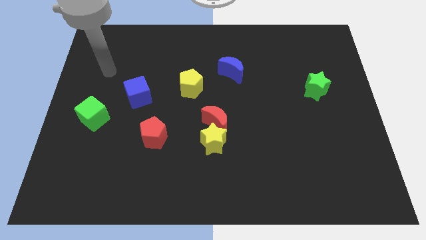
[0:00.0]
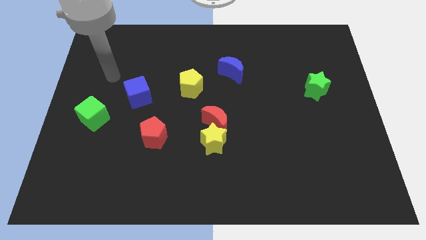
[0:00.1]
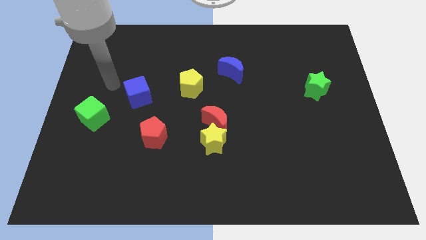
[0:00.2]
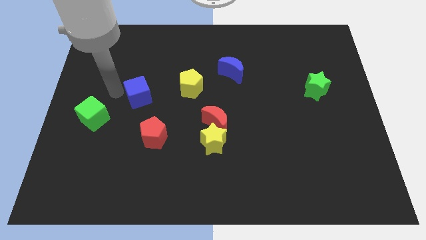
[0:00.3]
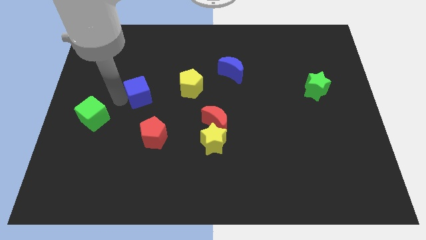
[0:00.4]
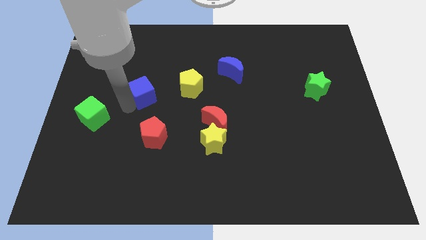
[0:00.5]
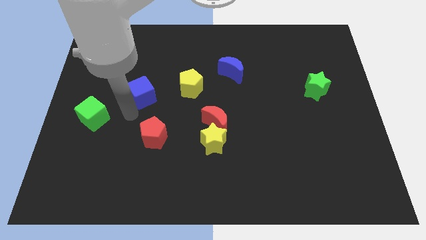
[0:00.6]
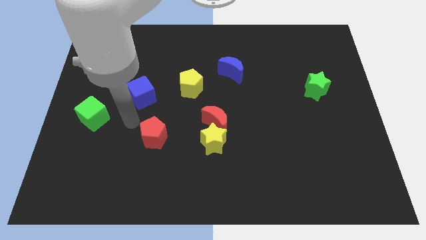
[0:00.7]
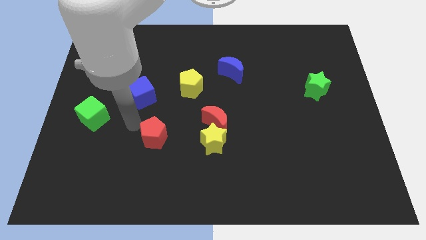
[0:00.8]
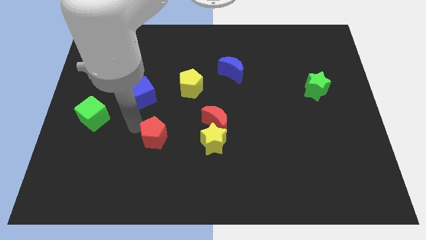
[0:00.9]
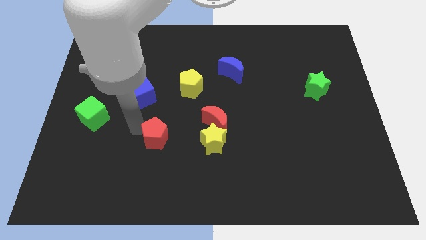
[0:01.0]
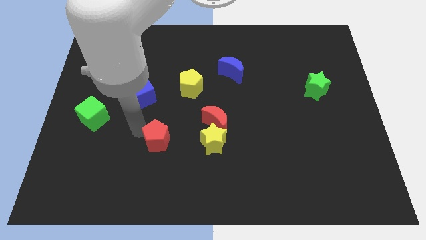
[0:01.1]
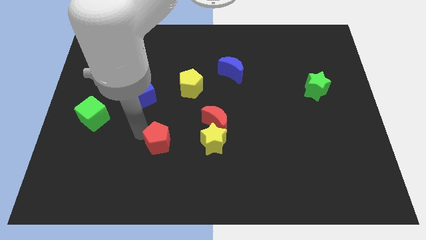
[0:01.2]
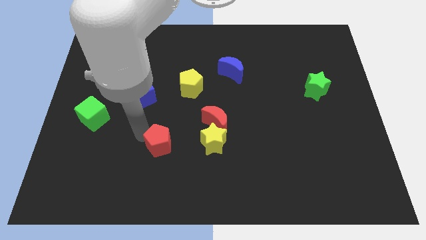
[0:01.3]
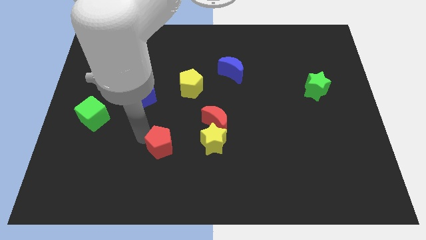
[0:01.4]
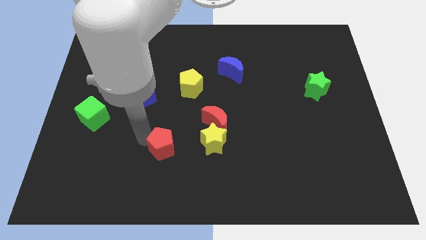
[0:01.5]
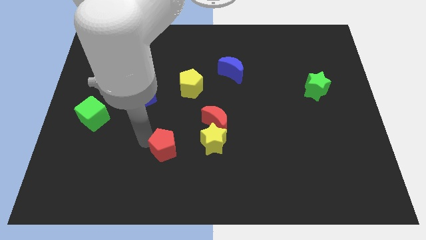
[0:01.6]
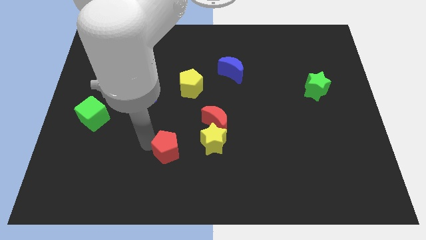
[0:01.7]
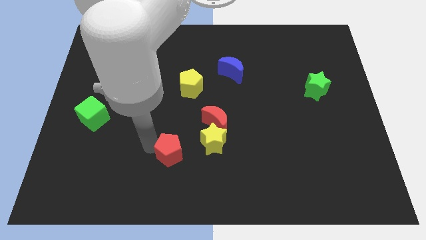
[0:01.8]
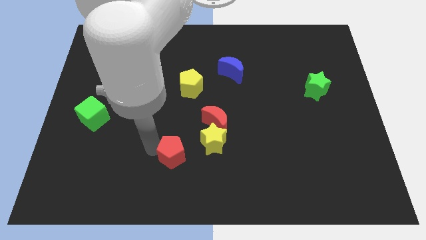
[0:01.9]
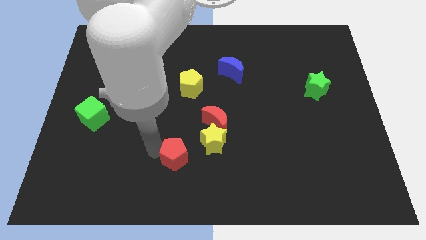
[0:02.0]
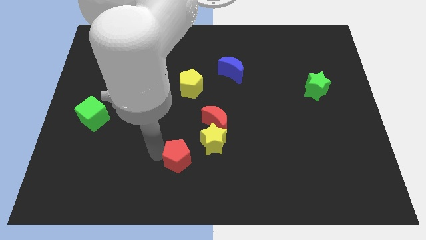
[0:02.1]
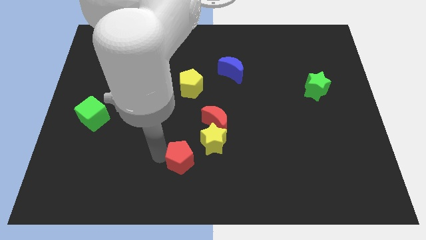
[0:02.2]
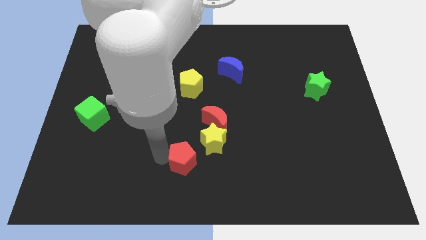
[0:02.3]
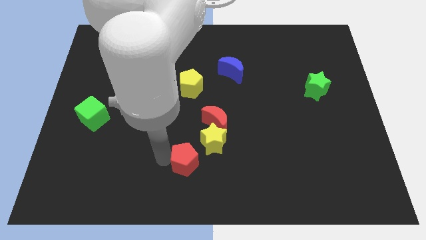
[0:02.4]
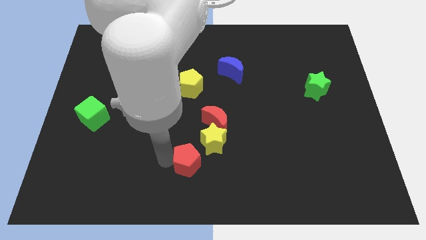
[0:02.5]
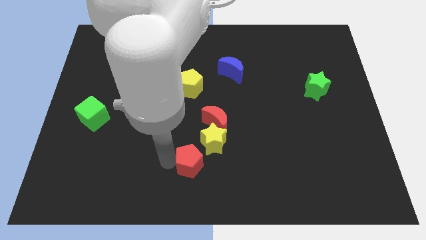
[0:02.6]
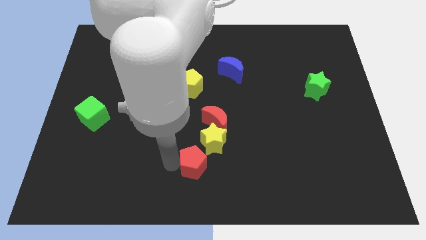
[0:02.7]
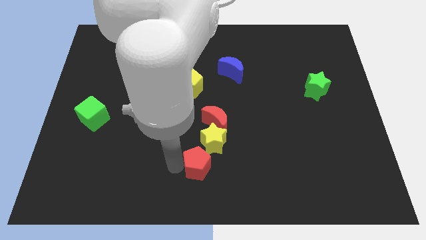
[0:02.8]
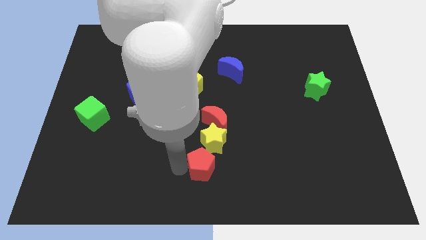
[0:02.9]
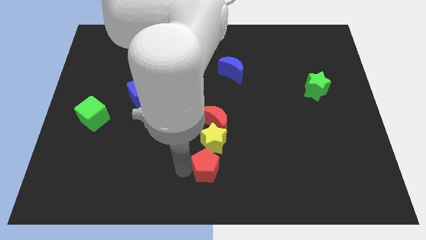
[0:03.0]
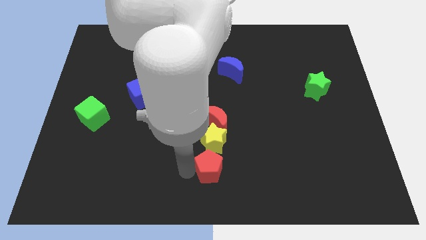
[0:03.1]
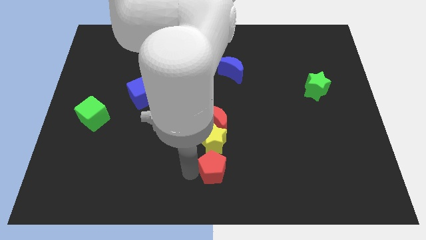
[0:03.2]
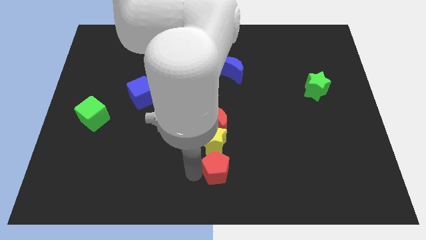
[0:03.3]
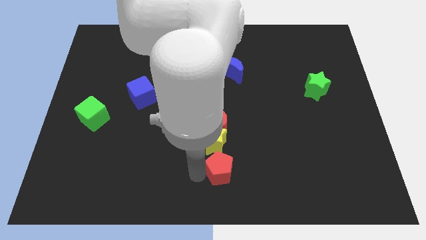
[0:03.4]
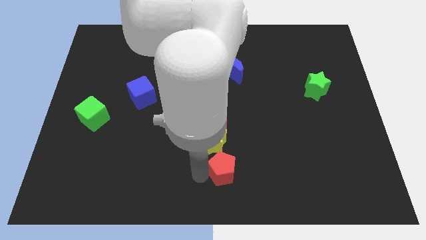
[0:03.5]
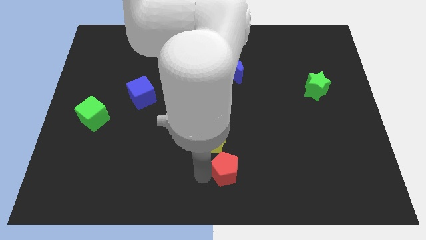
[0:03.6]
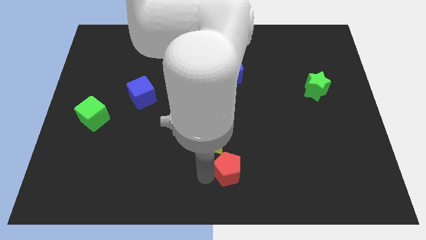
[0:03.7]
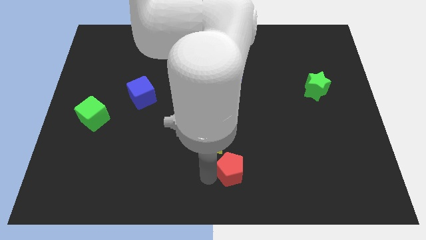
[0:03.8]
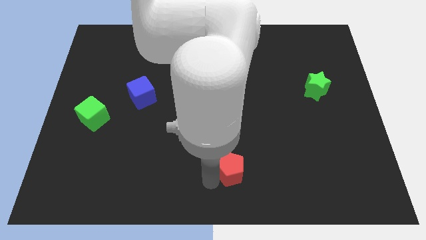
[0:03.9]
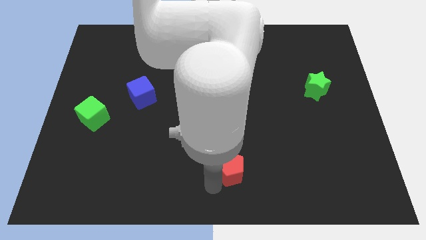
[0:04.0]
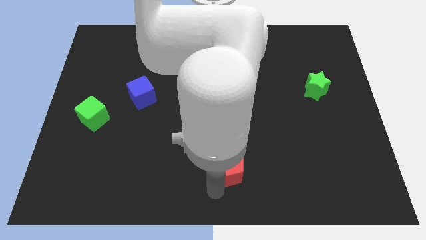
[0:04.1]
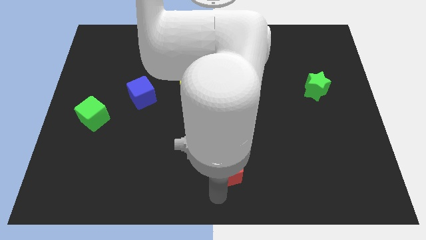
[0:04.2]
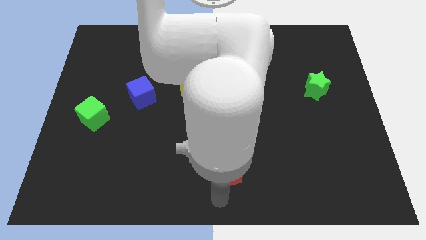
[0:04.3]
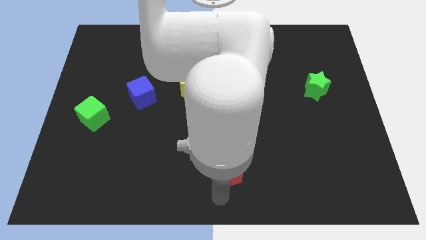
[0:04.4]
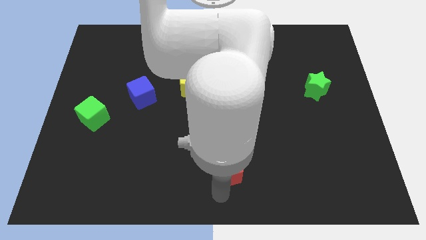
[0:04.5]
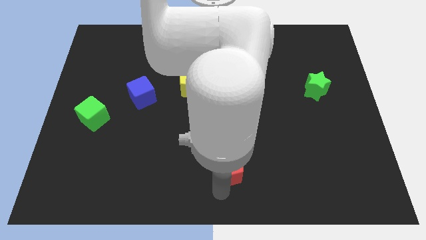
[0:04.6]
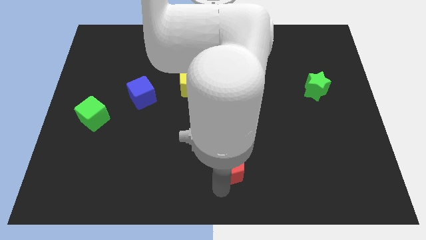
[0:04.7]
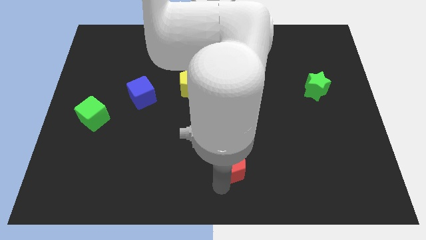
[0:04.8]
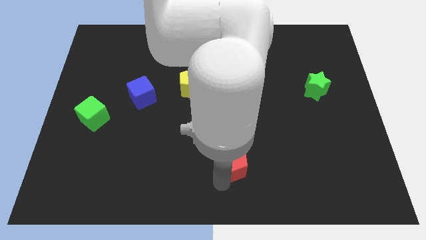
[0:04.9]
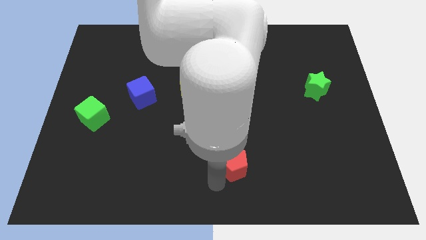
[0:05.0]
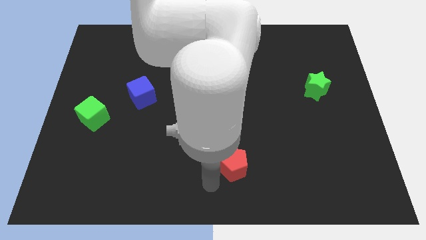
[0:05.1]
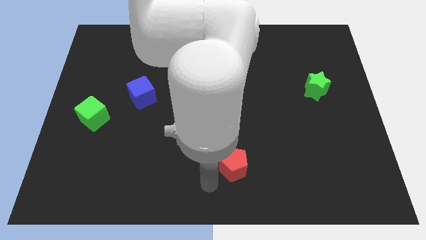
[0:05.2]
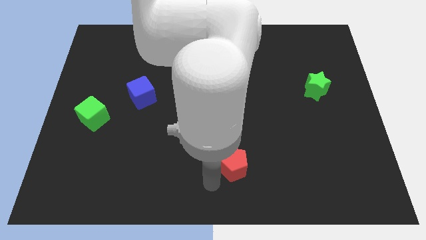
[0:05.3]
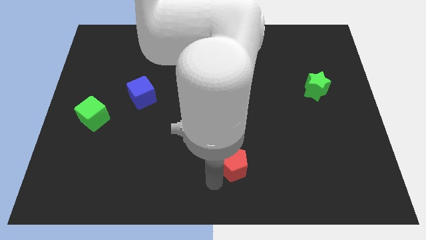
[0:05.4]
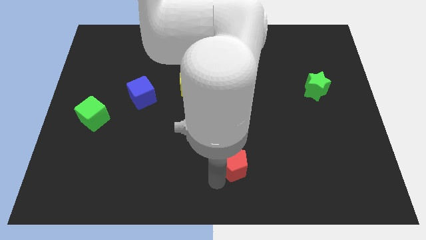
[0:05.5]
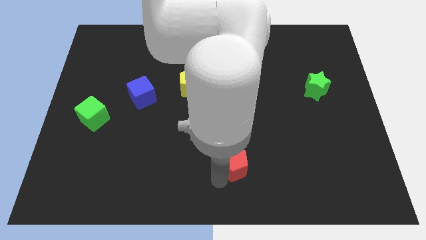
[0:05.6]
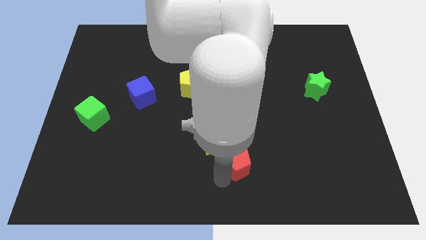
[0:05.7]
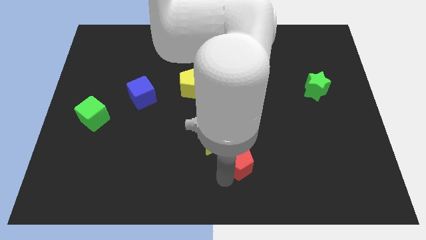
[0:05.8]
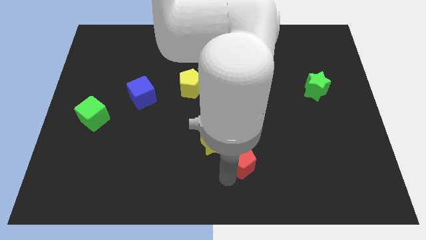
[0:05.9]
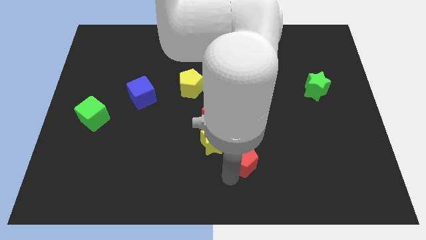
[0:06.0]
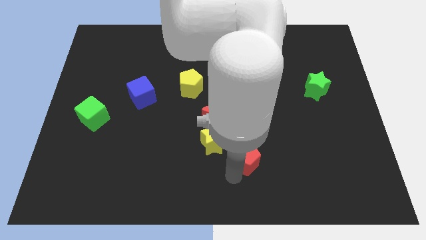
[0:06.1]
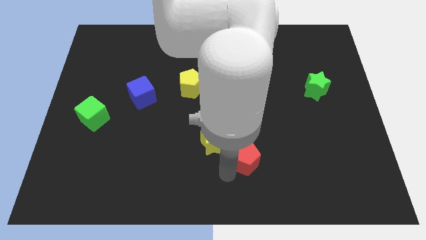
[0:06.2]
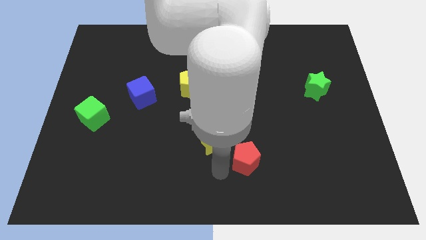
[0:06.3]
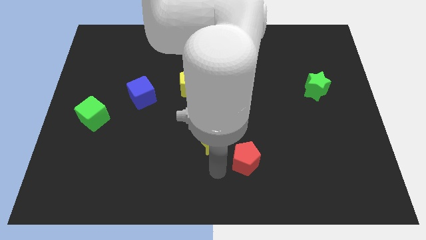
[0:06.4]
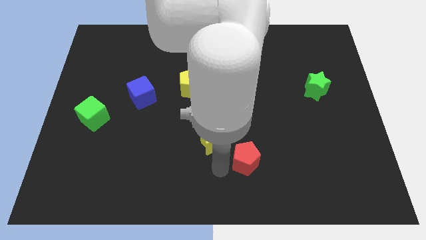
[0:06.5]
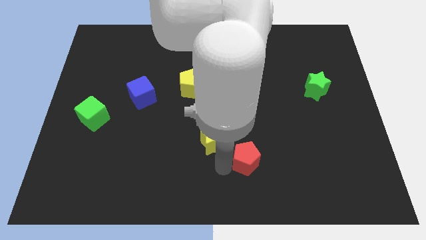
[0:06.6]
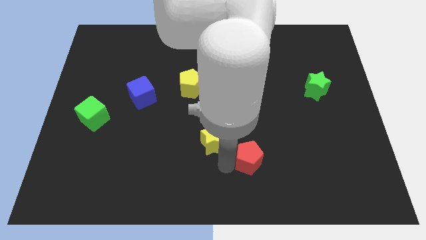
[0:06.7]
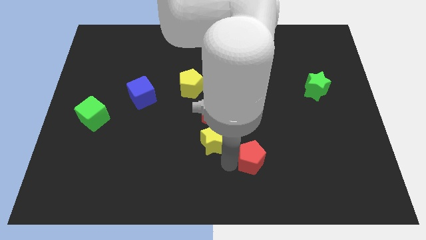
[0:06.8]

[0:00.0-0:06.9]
push the red pentagon right

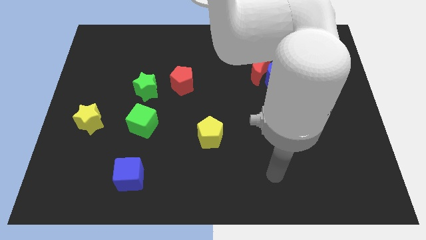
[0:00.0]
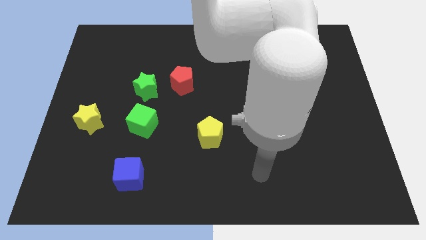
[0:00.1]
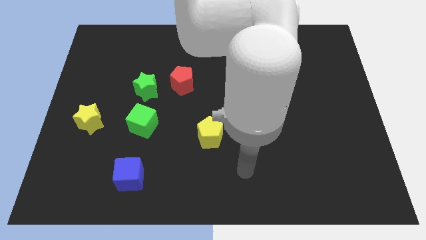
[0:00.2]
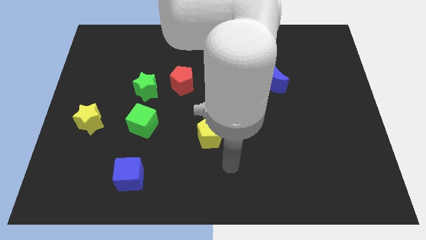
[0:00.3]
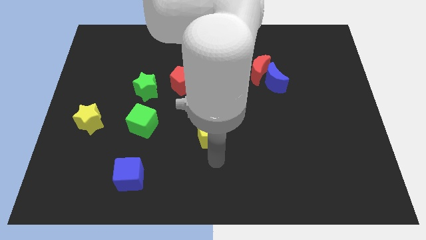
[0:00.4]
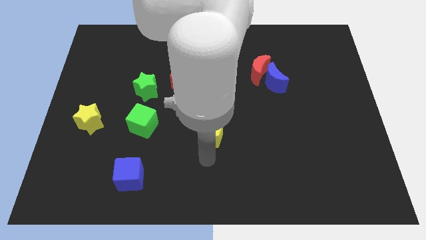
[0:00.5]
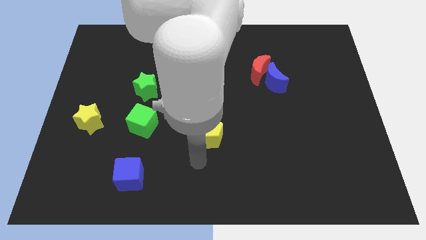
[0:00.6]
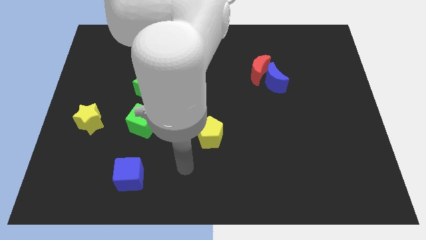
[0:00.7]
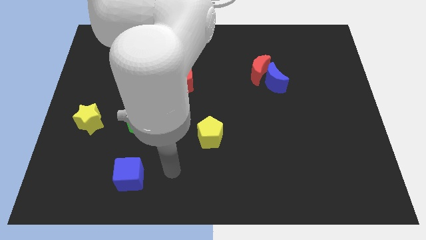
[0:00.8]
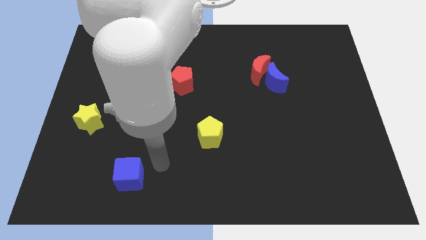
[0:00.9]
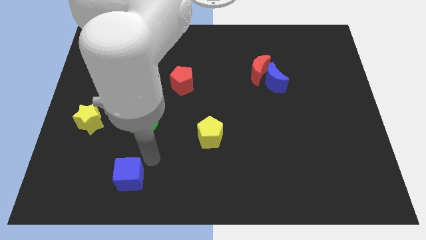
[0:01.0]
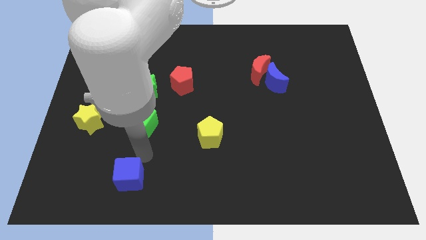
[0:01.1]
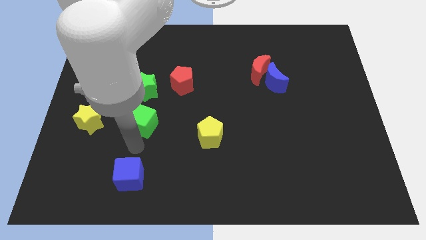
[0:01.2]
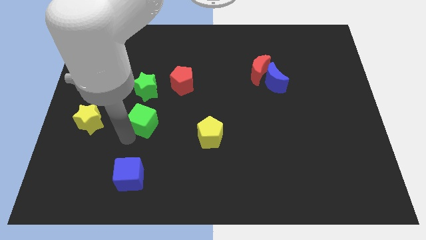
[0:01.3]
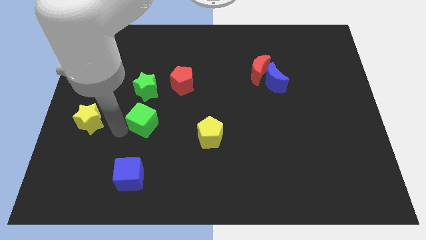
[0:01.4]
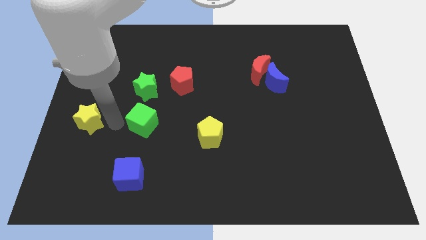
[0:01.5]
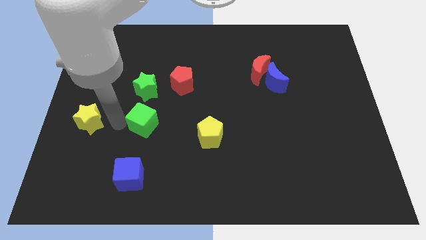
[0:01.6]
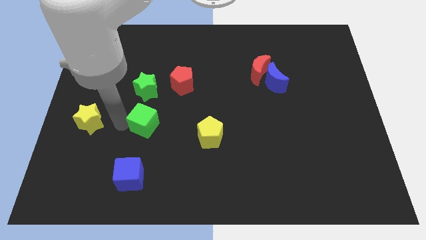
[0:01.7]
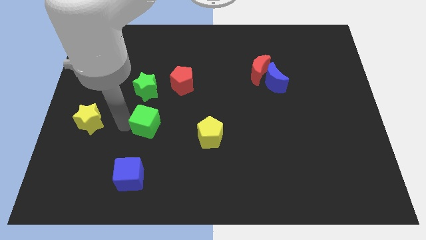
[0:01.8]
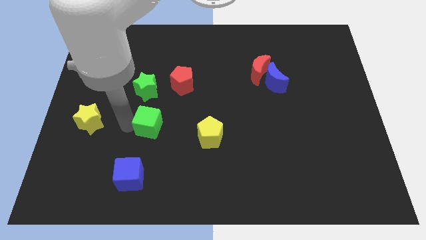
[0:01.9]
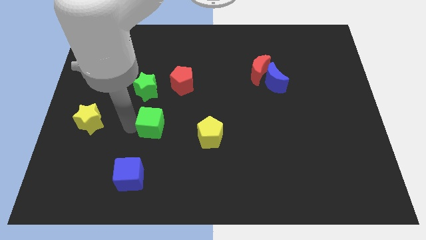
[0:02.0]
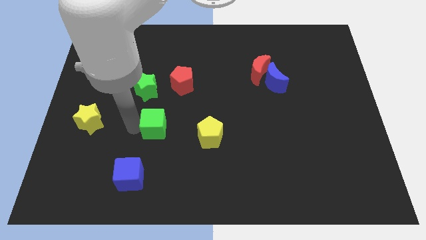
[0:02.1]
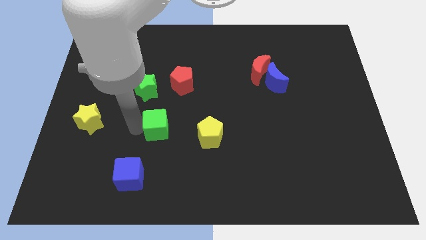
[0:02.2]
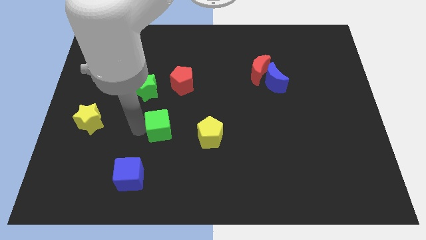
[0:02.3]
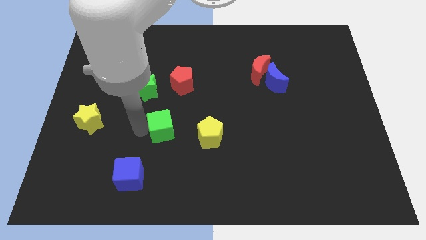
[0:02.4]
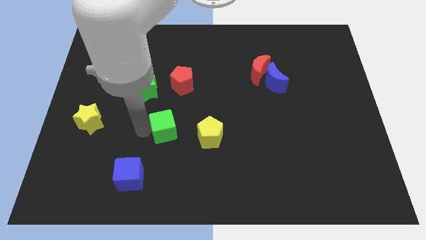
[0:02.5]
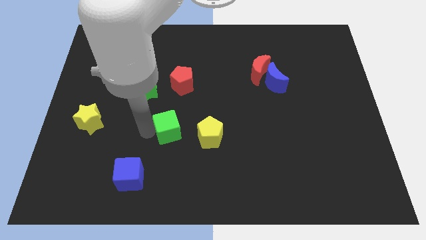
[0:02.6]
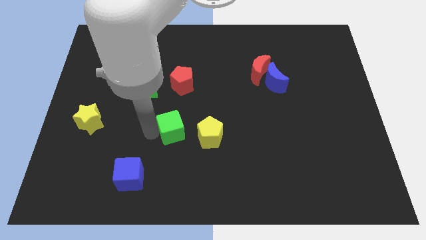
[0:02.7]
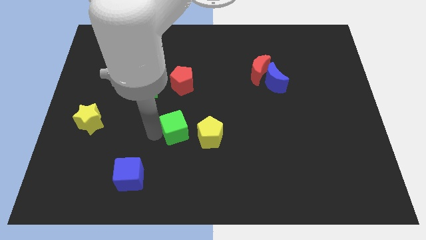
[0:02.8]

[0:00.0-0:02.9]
slightly move the green cube right
